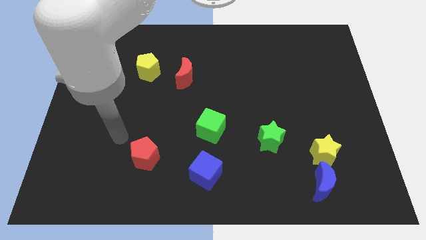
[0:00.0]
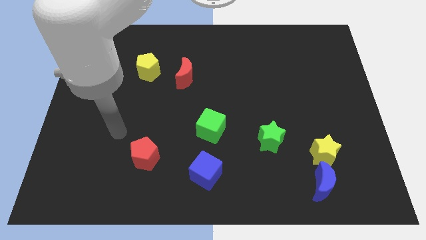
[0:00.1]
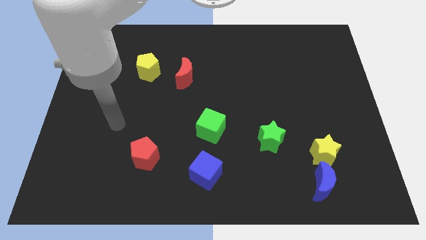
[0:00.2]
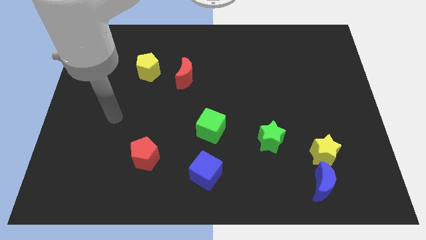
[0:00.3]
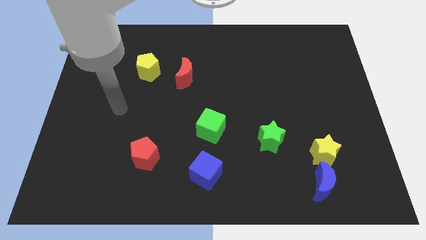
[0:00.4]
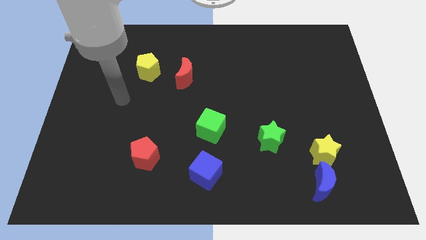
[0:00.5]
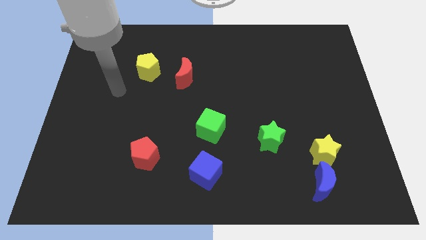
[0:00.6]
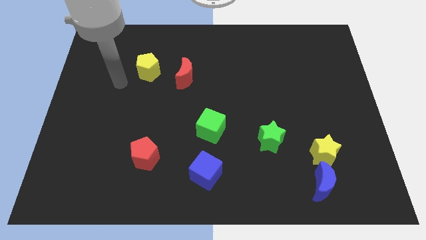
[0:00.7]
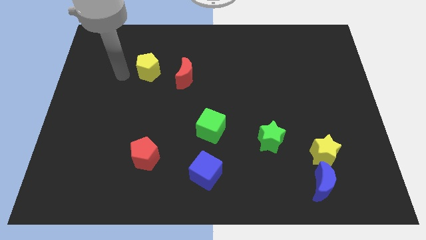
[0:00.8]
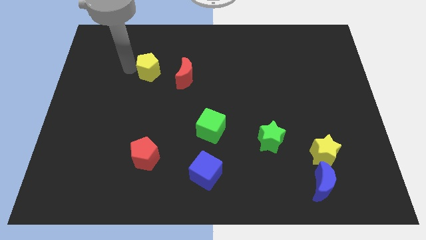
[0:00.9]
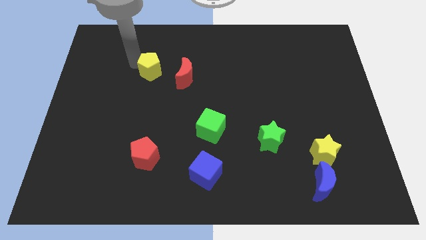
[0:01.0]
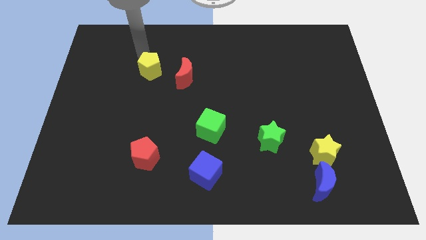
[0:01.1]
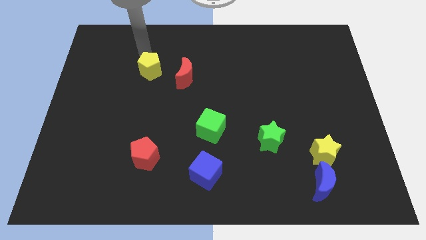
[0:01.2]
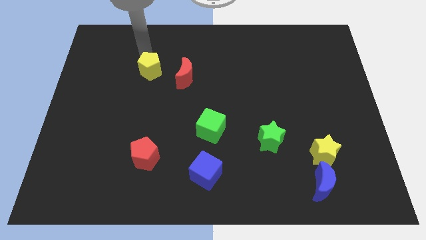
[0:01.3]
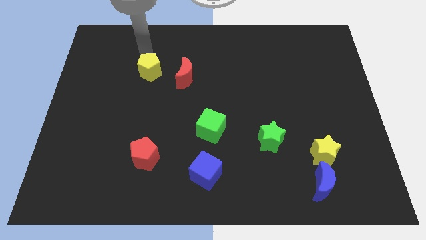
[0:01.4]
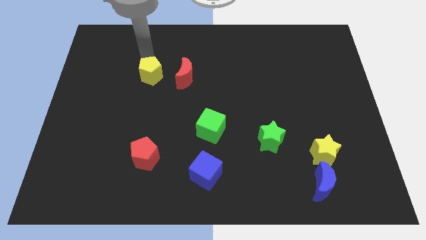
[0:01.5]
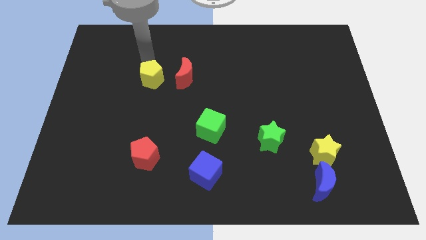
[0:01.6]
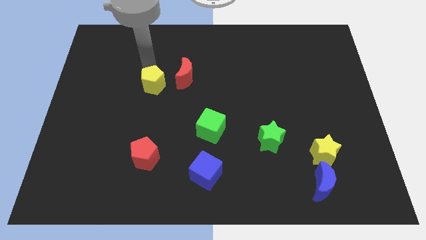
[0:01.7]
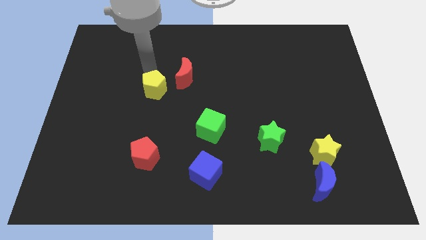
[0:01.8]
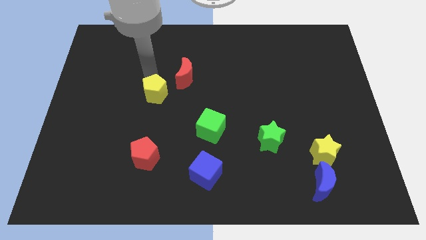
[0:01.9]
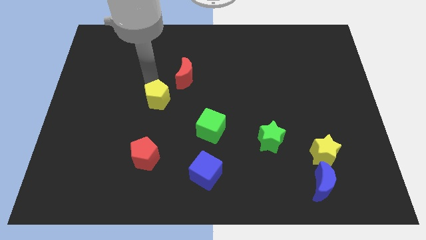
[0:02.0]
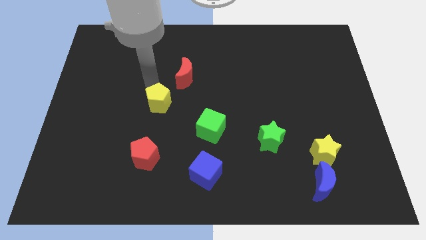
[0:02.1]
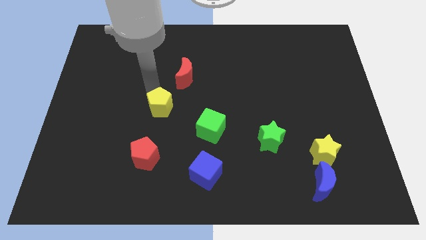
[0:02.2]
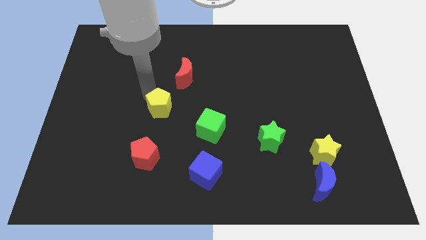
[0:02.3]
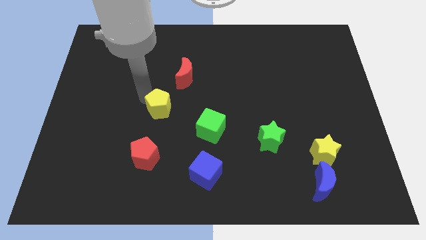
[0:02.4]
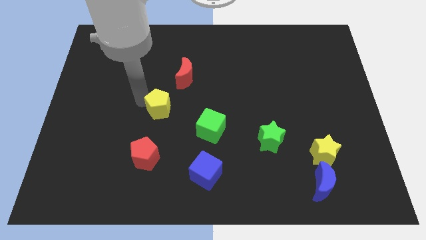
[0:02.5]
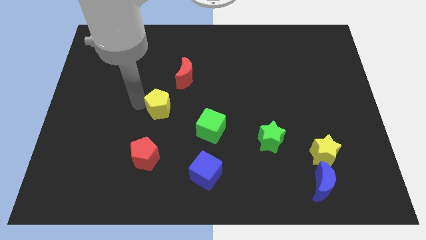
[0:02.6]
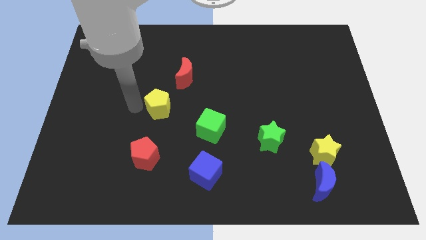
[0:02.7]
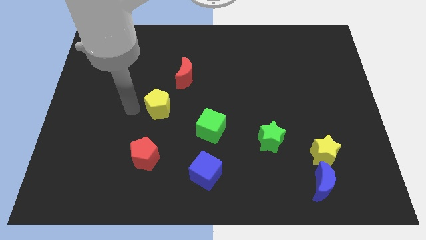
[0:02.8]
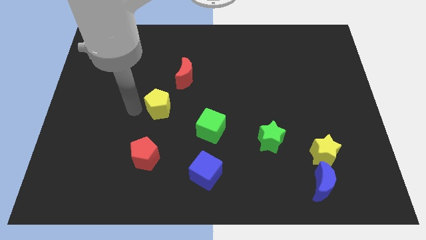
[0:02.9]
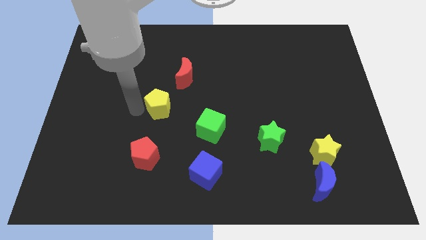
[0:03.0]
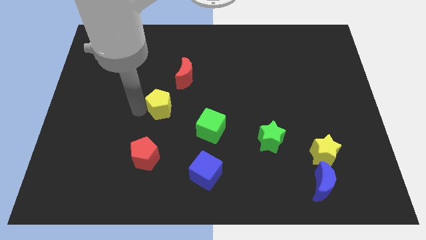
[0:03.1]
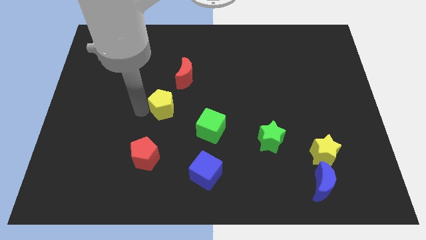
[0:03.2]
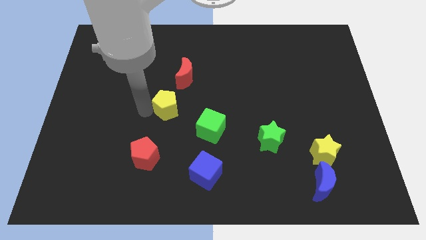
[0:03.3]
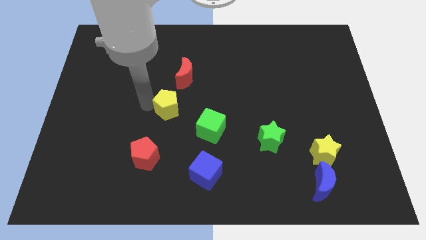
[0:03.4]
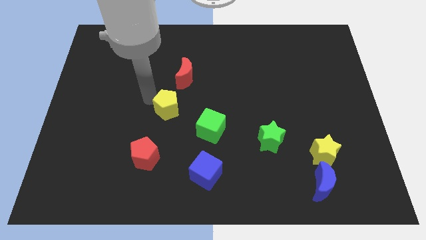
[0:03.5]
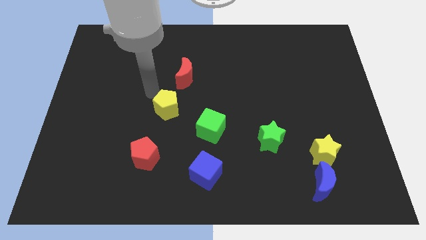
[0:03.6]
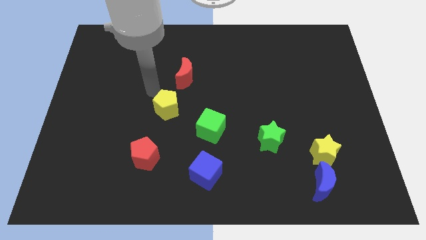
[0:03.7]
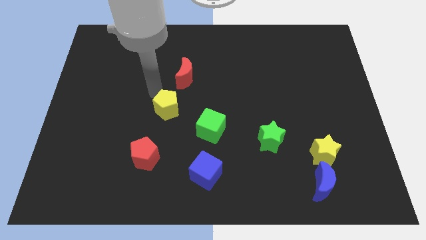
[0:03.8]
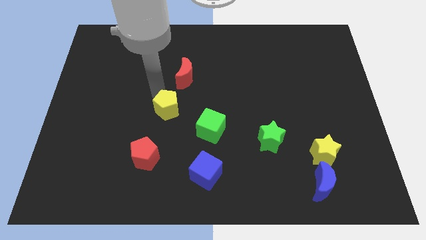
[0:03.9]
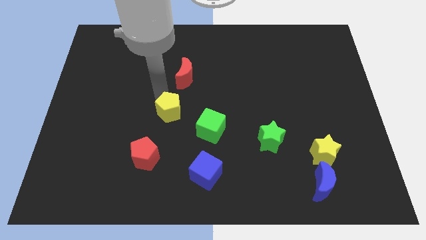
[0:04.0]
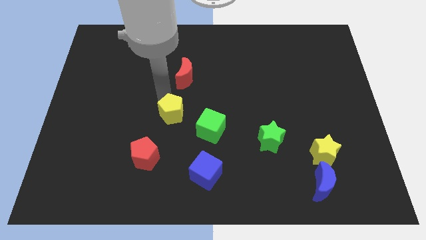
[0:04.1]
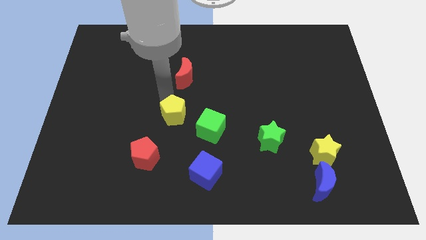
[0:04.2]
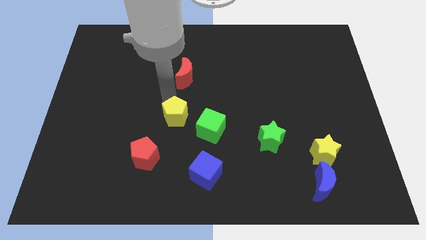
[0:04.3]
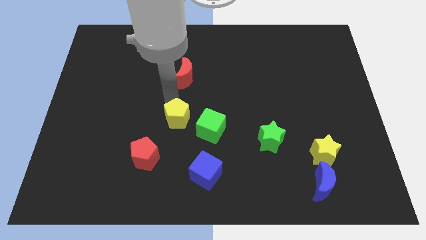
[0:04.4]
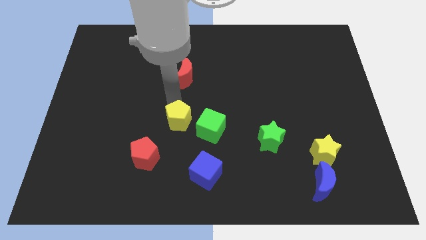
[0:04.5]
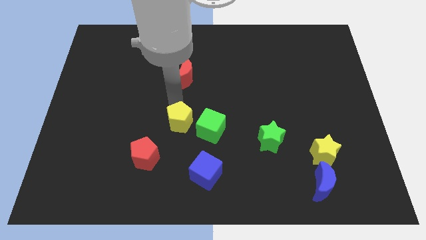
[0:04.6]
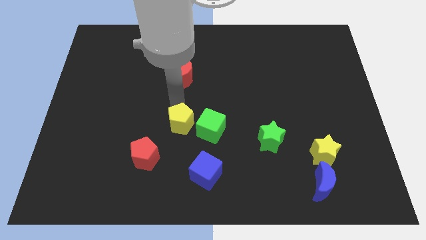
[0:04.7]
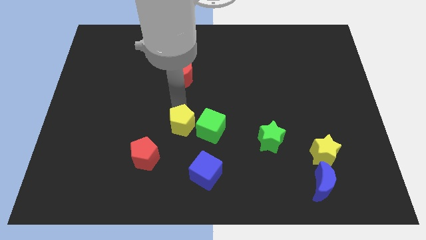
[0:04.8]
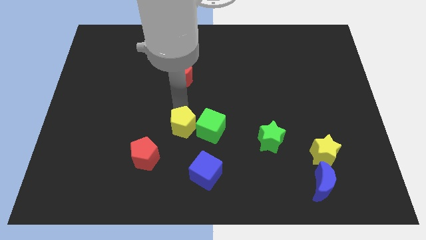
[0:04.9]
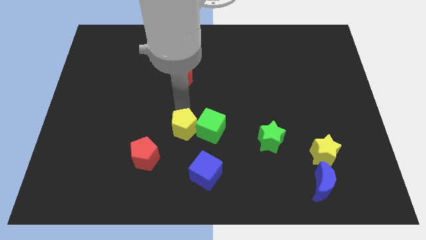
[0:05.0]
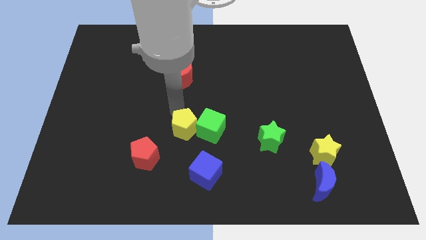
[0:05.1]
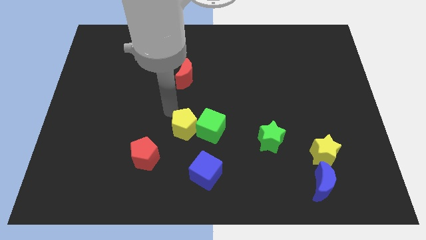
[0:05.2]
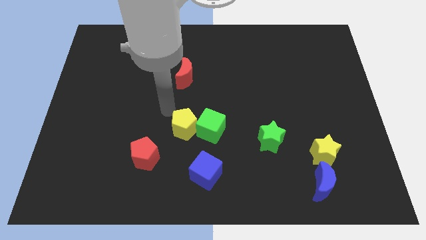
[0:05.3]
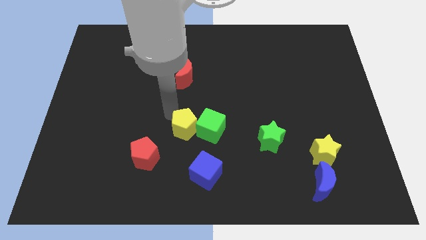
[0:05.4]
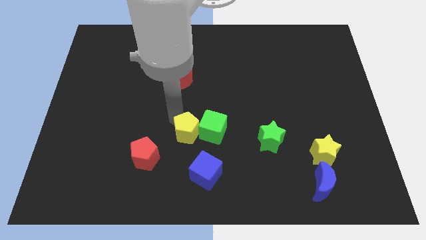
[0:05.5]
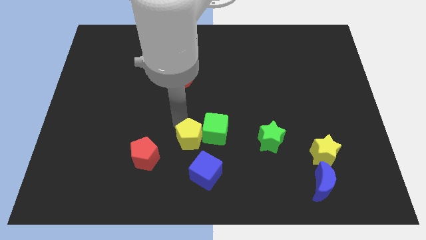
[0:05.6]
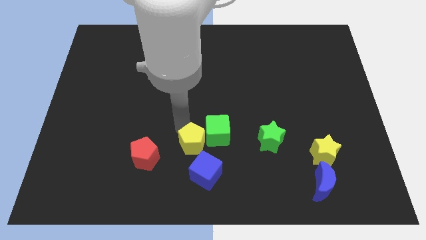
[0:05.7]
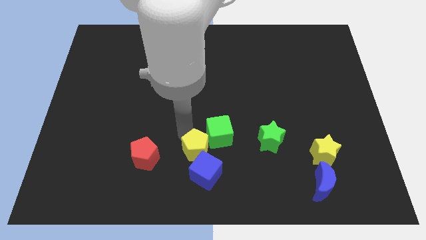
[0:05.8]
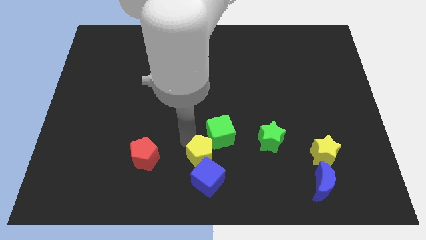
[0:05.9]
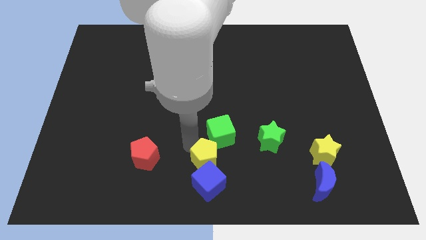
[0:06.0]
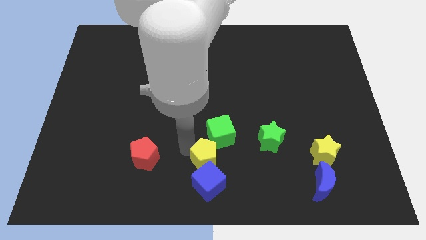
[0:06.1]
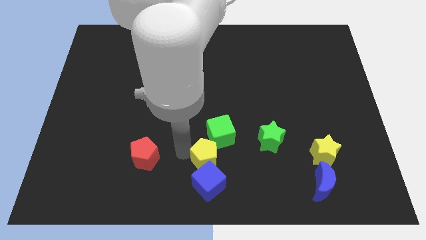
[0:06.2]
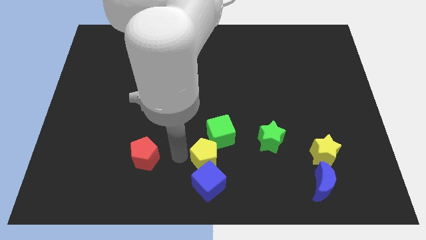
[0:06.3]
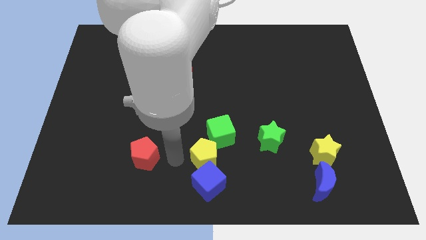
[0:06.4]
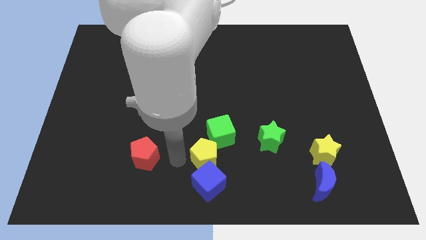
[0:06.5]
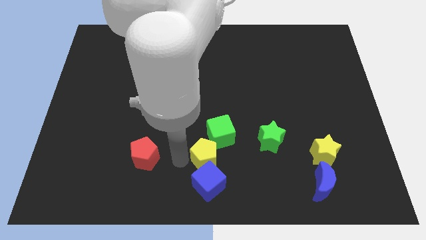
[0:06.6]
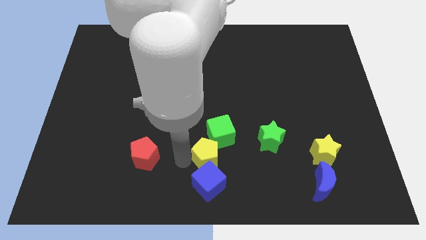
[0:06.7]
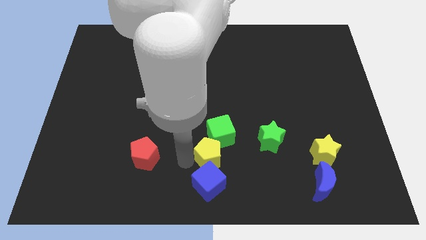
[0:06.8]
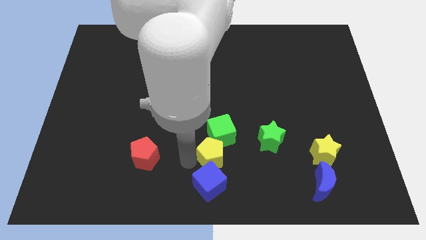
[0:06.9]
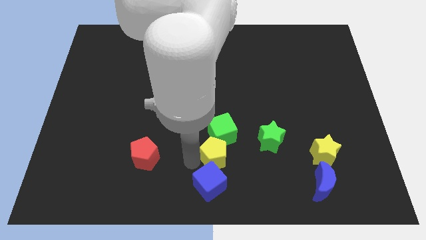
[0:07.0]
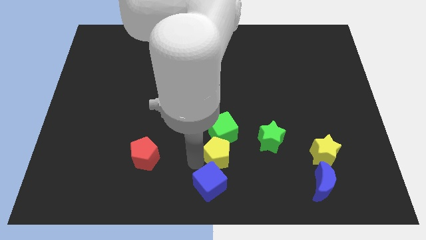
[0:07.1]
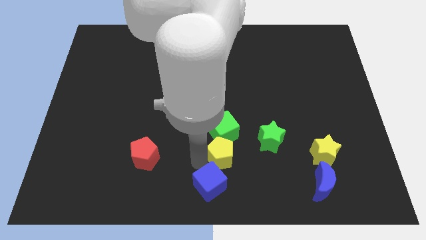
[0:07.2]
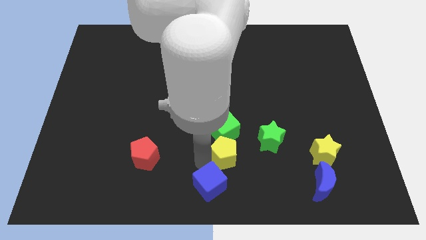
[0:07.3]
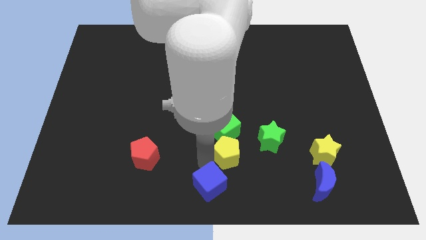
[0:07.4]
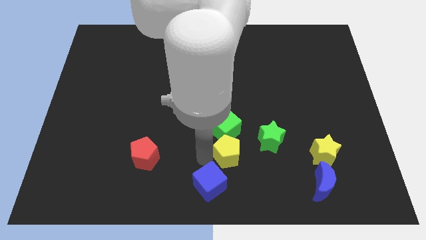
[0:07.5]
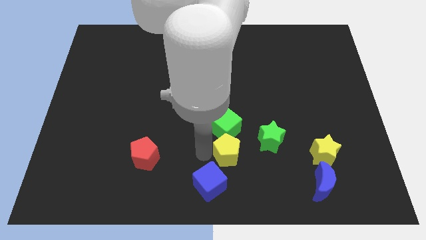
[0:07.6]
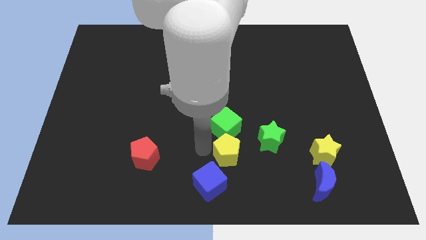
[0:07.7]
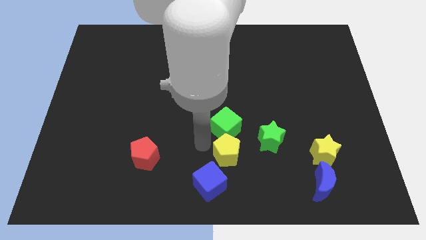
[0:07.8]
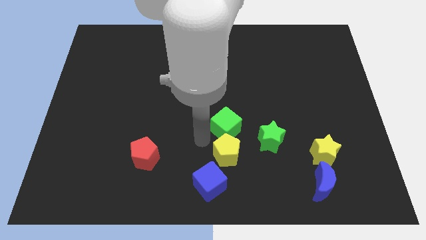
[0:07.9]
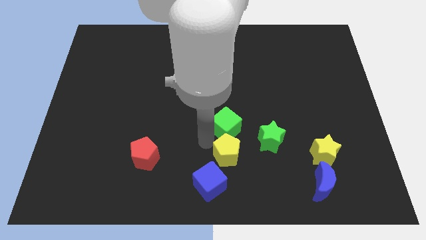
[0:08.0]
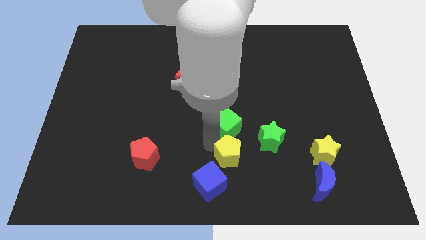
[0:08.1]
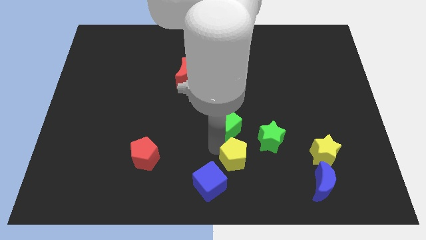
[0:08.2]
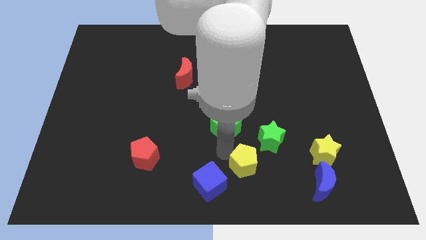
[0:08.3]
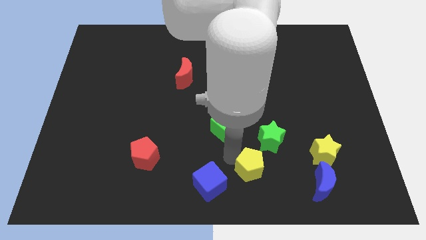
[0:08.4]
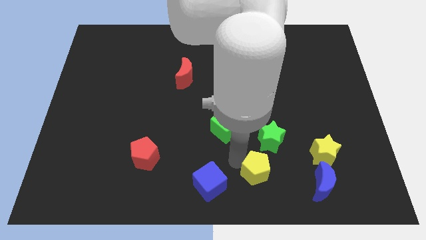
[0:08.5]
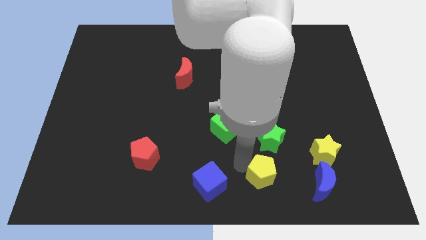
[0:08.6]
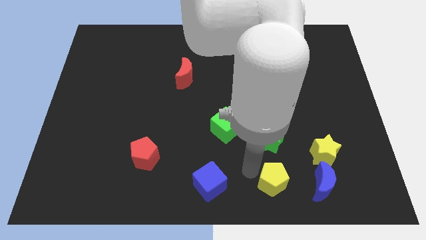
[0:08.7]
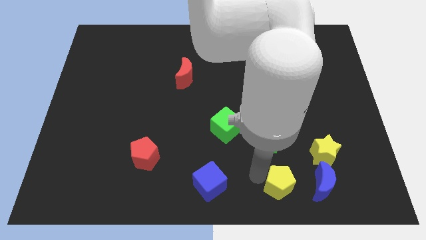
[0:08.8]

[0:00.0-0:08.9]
put the yellow pentagon to the bottom left of the yellow star
